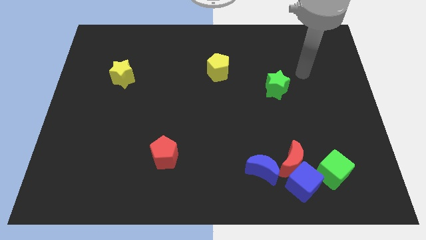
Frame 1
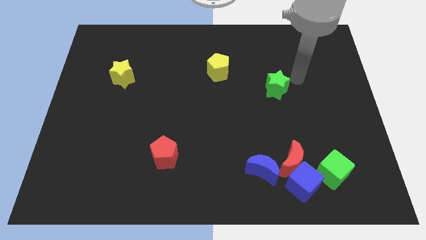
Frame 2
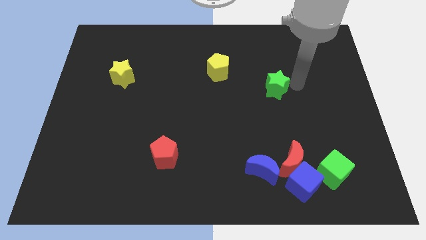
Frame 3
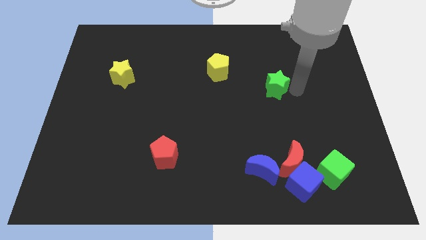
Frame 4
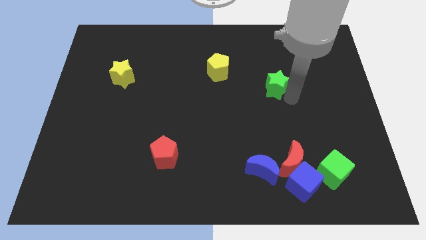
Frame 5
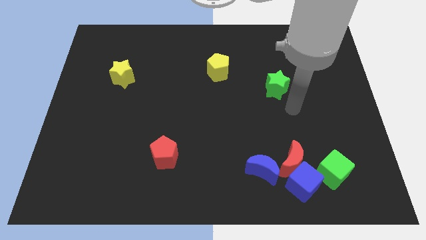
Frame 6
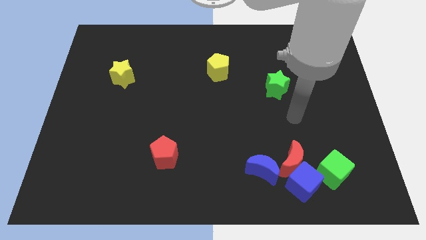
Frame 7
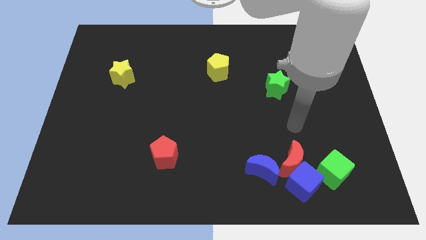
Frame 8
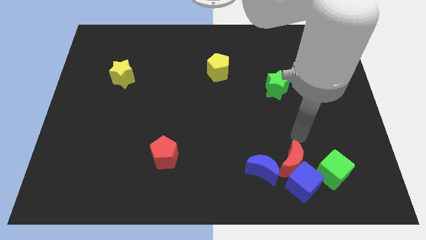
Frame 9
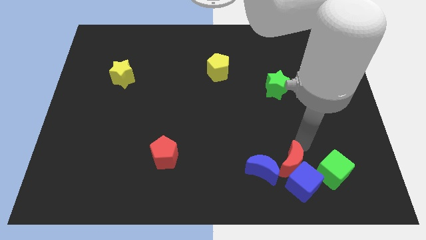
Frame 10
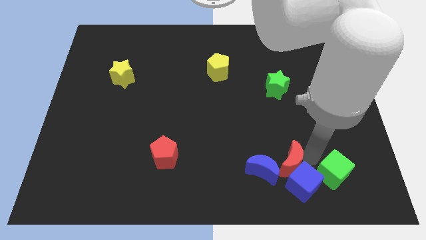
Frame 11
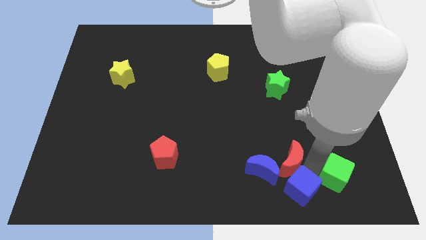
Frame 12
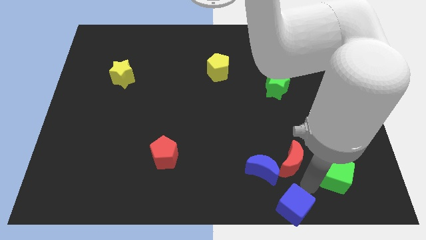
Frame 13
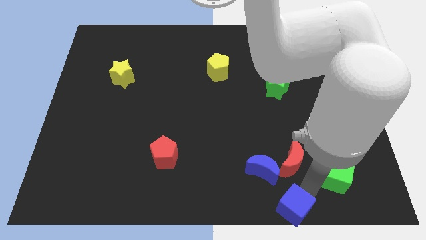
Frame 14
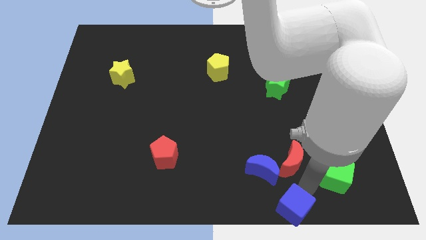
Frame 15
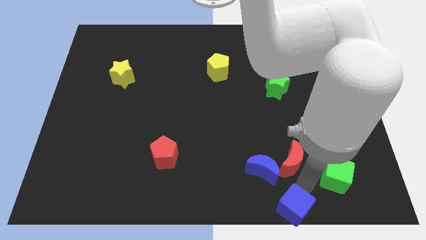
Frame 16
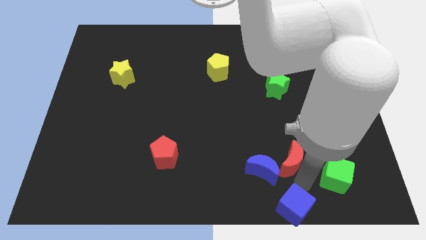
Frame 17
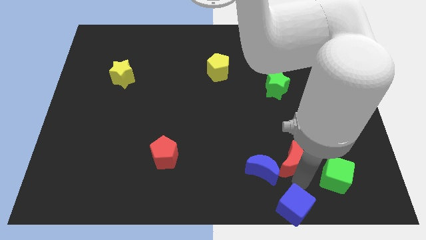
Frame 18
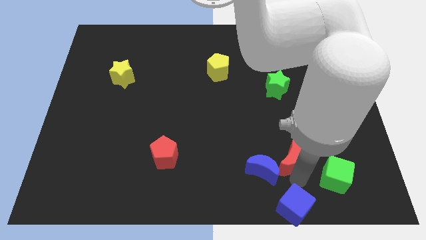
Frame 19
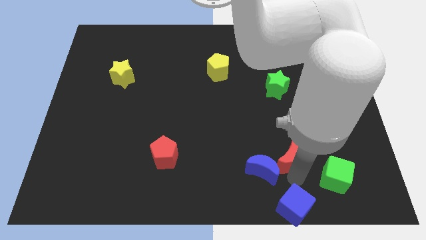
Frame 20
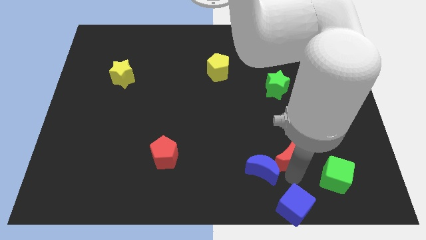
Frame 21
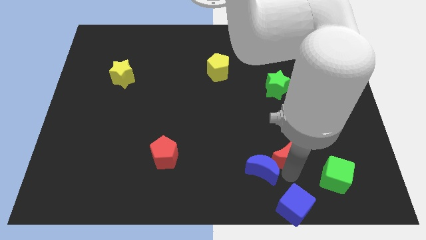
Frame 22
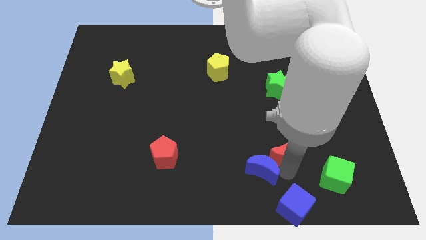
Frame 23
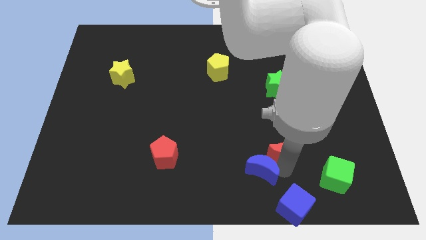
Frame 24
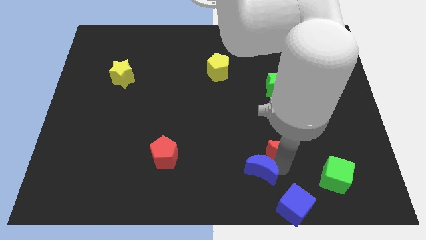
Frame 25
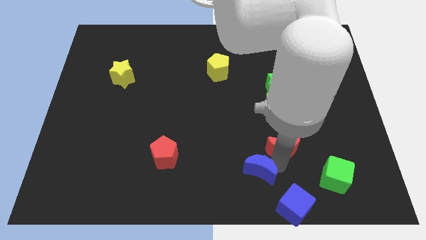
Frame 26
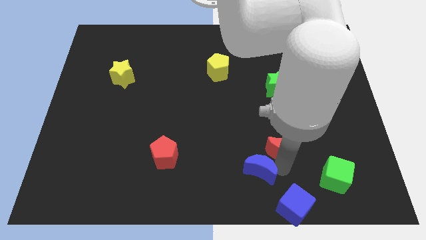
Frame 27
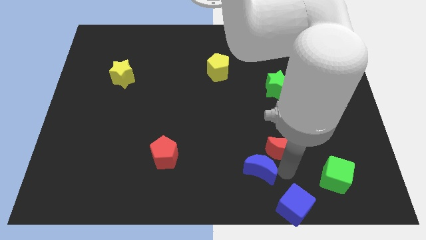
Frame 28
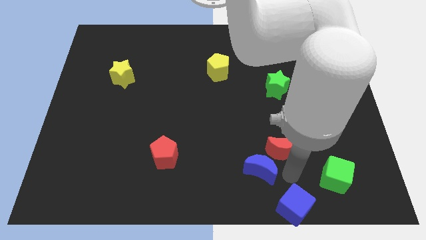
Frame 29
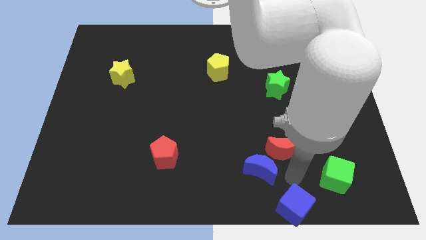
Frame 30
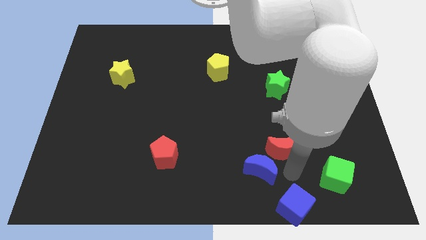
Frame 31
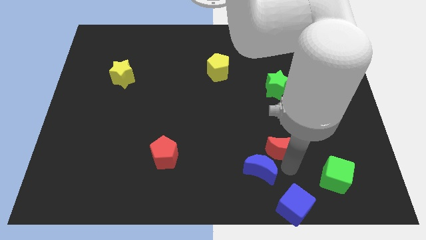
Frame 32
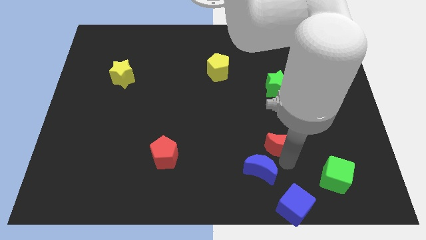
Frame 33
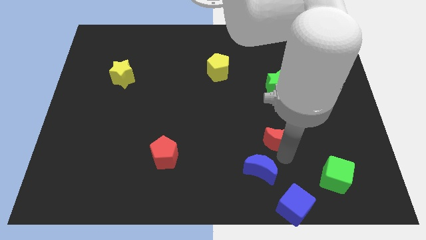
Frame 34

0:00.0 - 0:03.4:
separate the red moon from the group of blocks

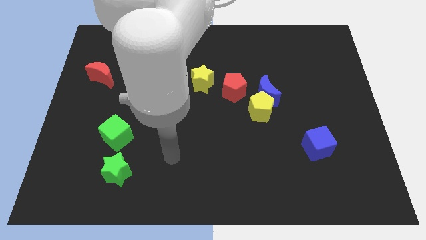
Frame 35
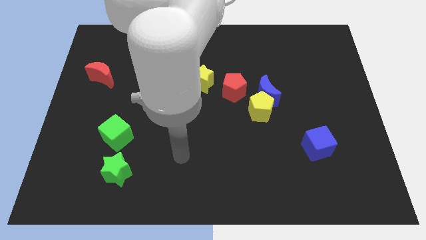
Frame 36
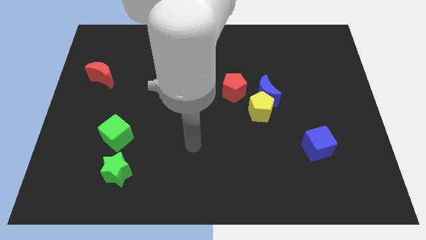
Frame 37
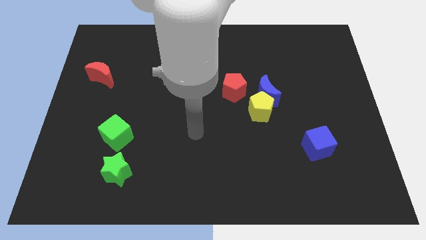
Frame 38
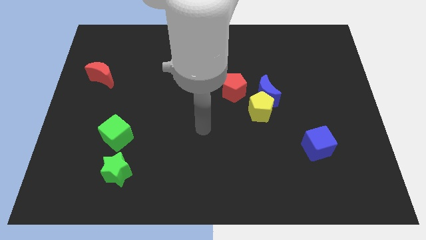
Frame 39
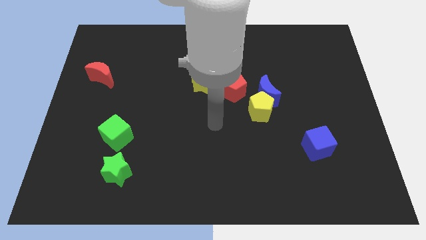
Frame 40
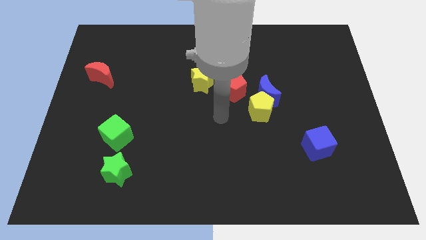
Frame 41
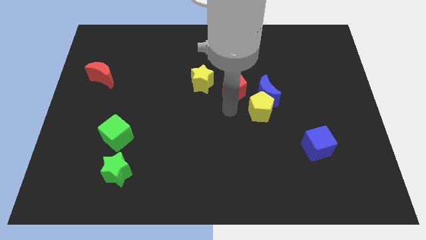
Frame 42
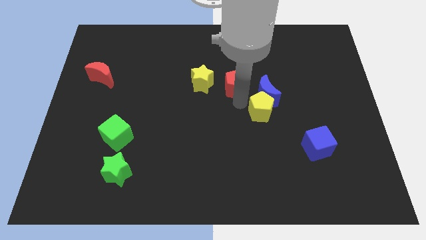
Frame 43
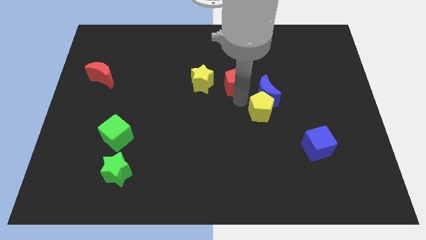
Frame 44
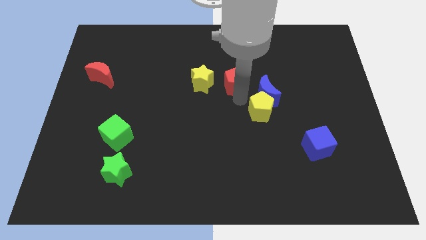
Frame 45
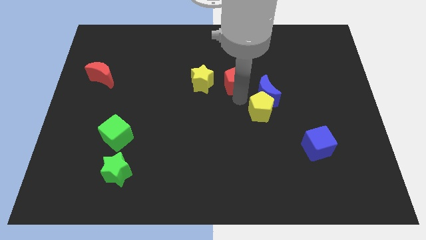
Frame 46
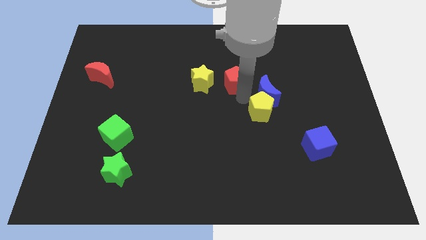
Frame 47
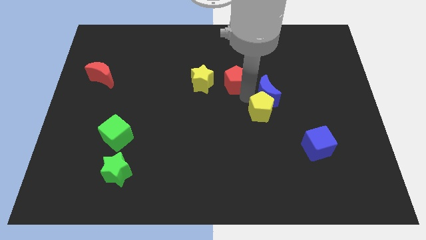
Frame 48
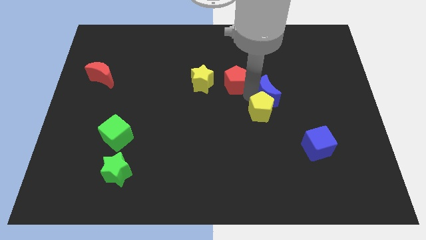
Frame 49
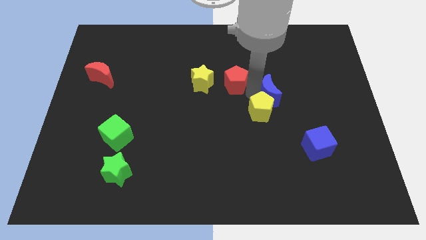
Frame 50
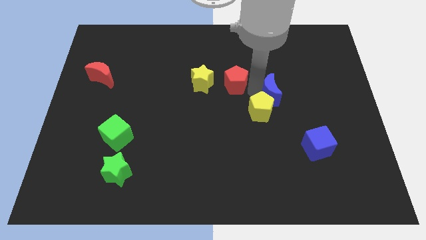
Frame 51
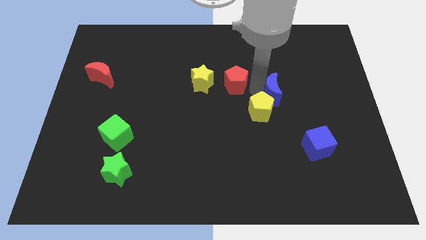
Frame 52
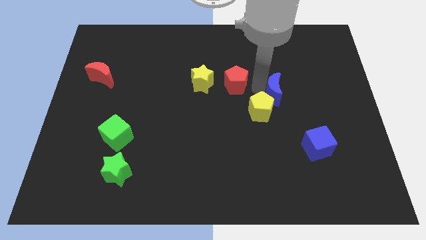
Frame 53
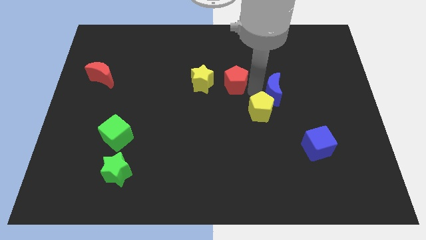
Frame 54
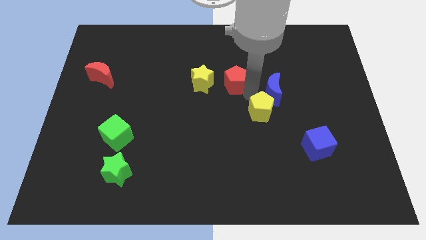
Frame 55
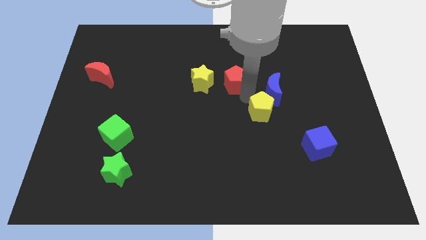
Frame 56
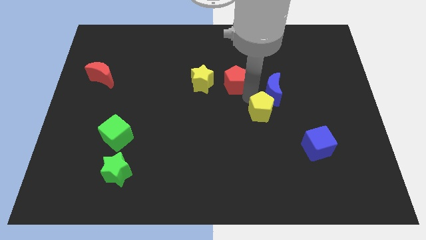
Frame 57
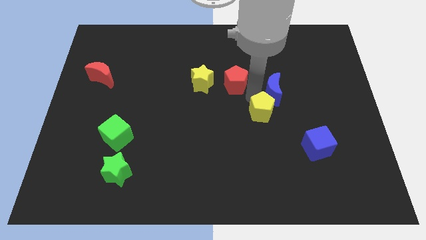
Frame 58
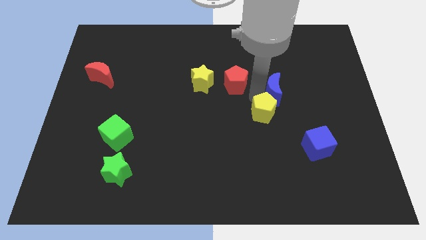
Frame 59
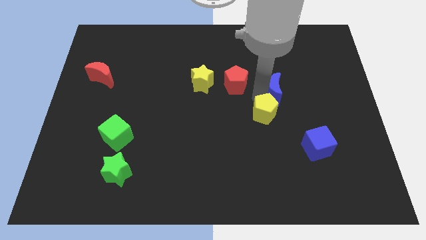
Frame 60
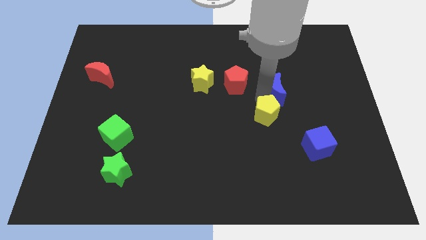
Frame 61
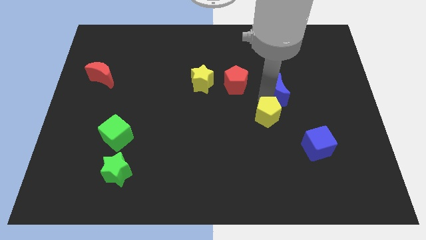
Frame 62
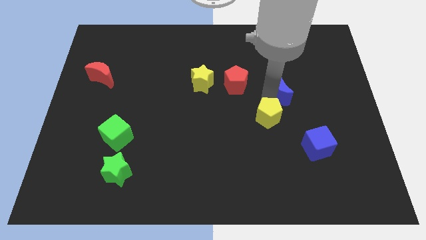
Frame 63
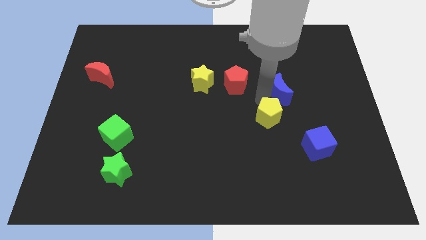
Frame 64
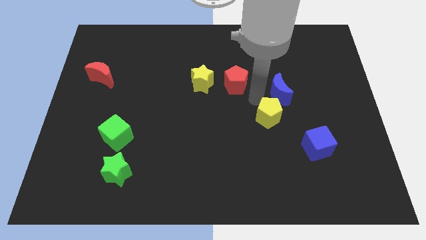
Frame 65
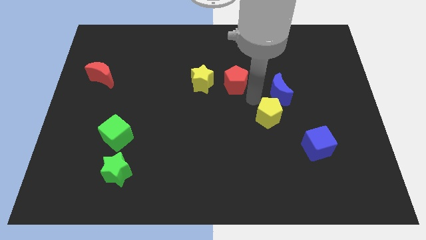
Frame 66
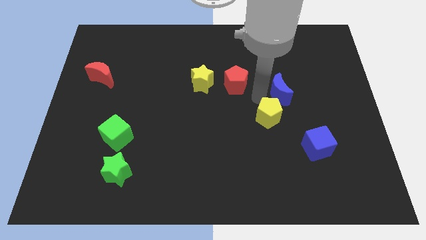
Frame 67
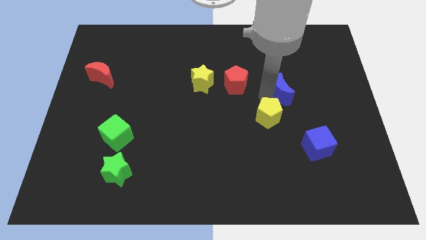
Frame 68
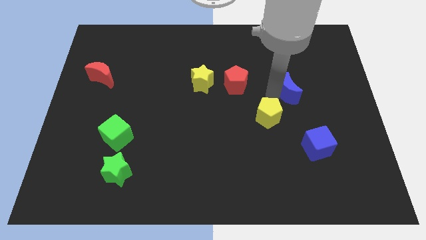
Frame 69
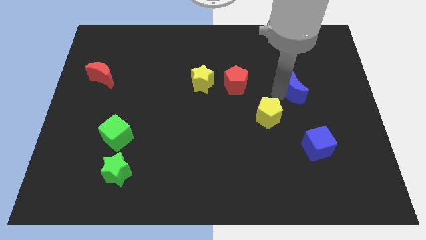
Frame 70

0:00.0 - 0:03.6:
separate the blue moon from the yellow pentagon and red pentagon

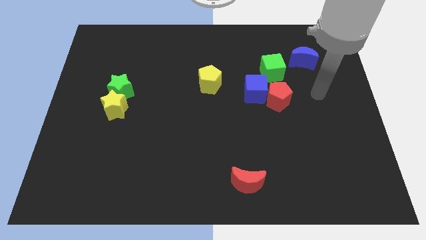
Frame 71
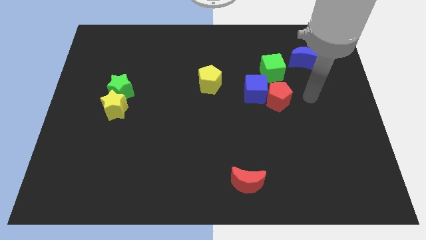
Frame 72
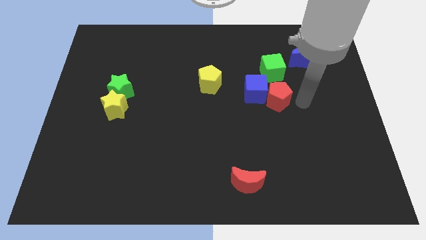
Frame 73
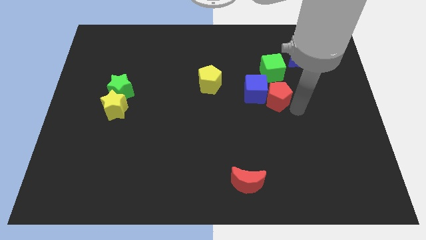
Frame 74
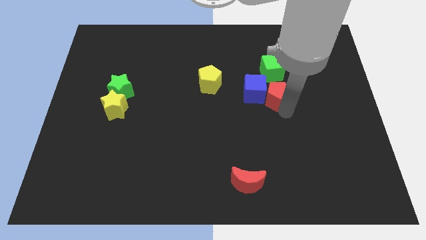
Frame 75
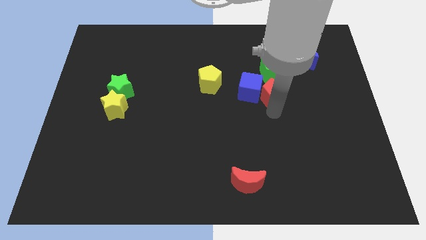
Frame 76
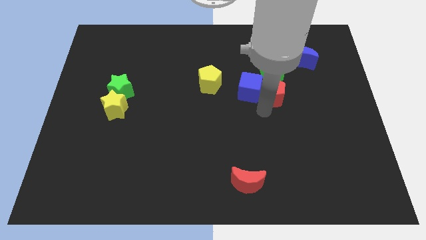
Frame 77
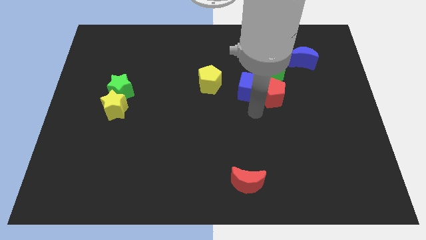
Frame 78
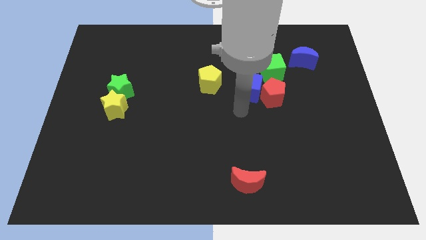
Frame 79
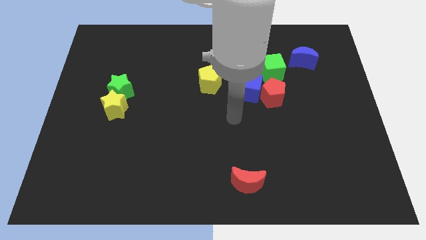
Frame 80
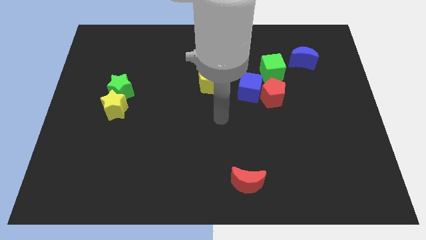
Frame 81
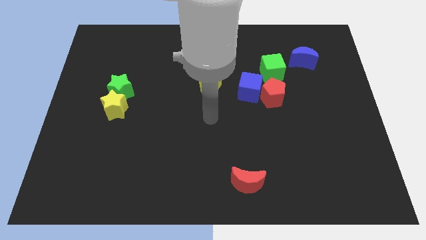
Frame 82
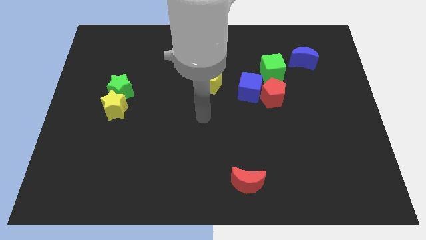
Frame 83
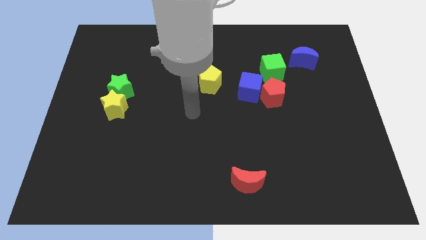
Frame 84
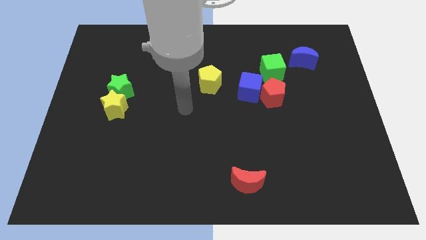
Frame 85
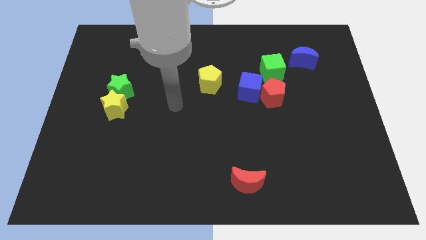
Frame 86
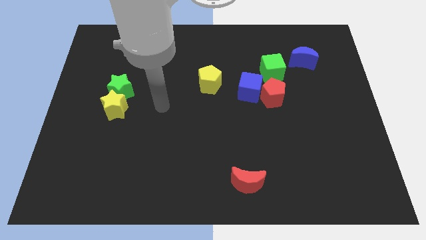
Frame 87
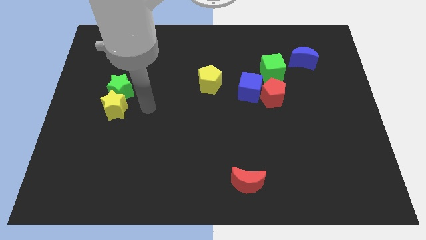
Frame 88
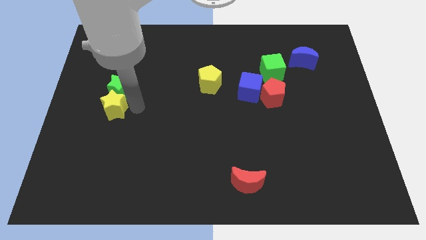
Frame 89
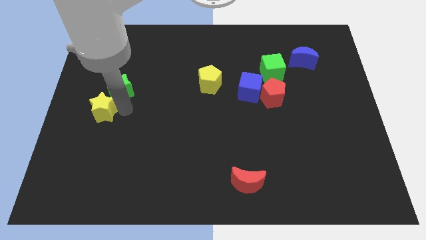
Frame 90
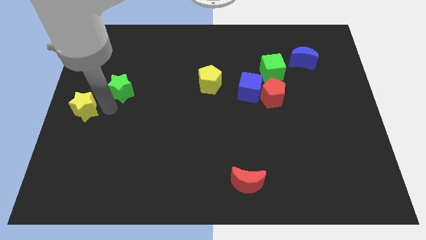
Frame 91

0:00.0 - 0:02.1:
separate the green star from the yellow star

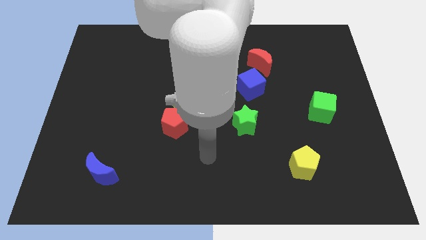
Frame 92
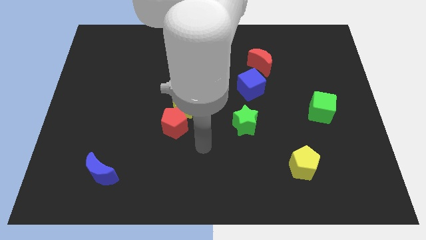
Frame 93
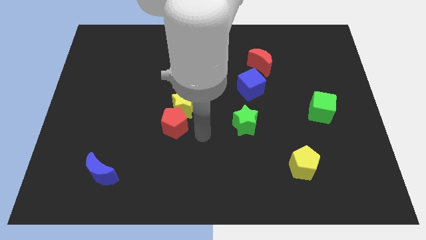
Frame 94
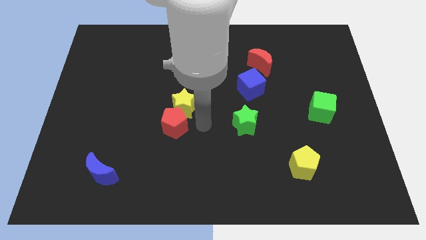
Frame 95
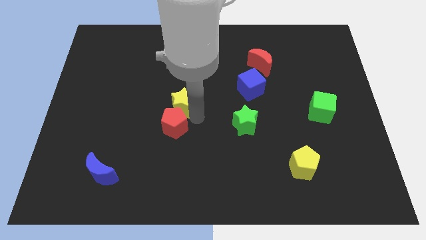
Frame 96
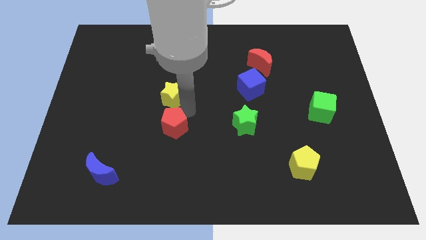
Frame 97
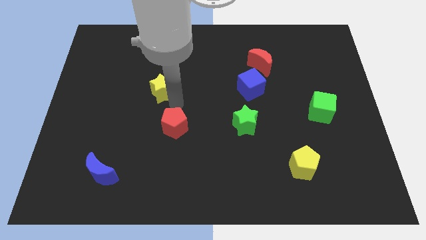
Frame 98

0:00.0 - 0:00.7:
pull the red pentagon apart from the yellow star
